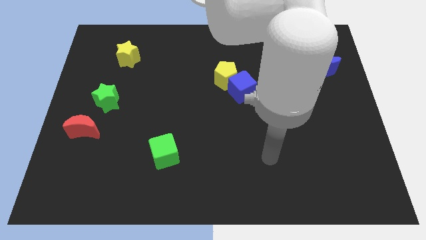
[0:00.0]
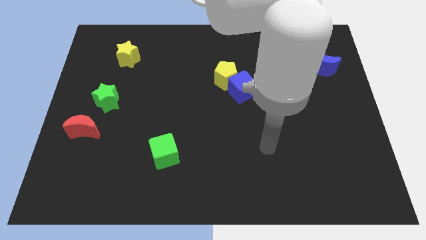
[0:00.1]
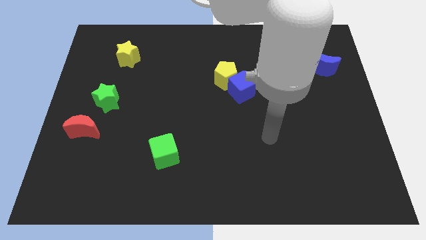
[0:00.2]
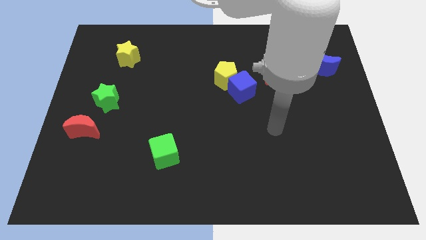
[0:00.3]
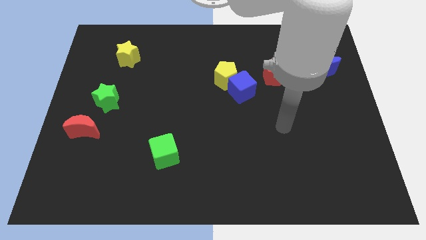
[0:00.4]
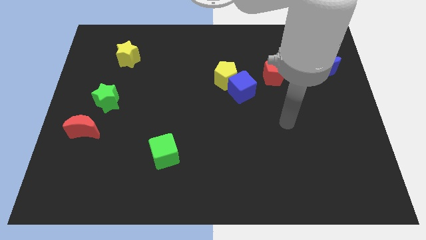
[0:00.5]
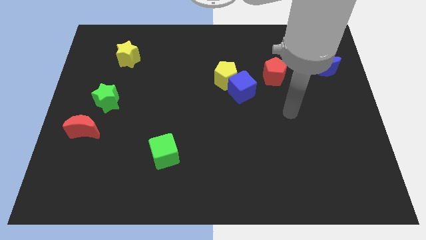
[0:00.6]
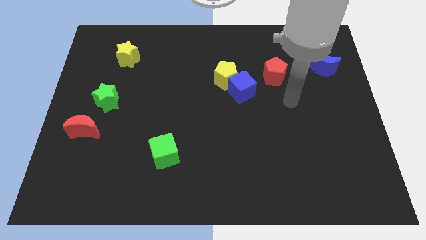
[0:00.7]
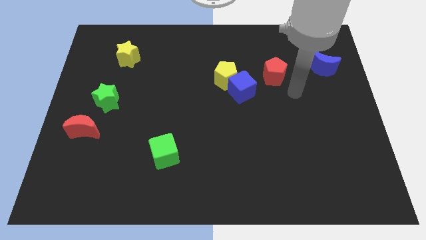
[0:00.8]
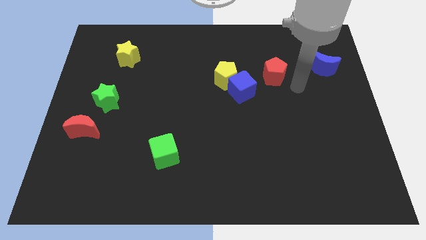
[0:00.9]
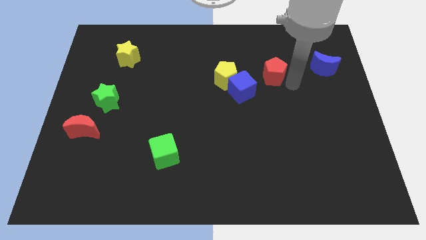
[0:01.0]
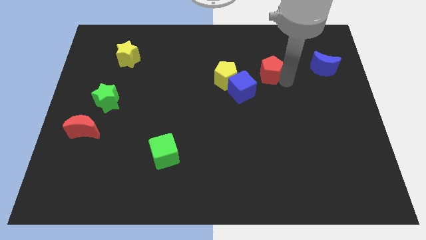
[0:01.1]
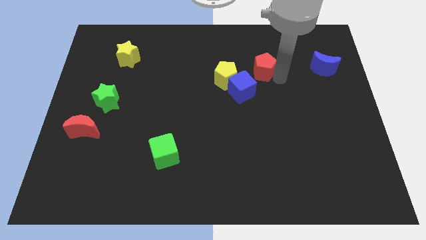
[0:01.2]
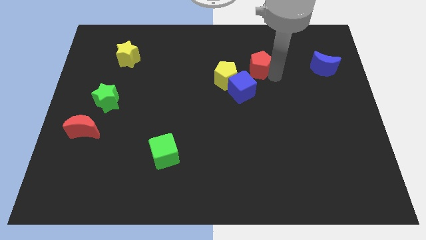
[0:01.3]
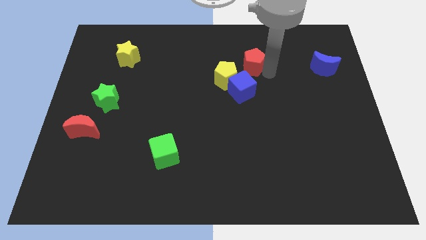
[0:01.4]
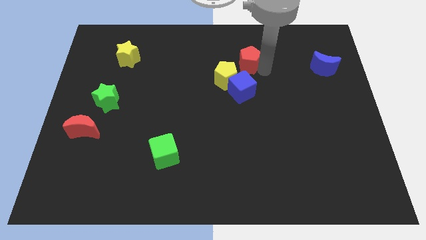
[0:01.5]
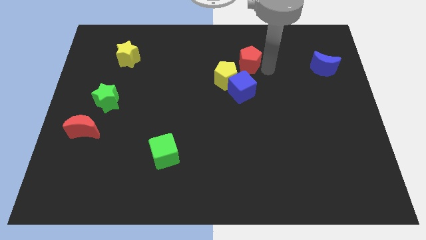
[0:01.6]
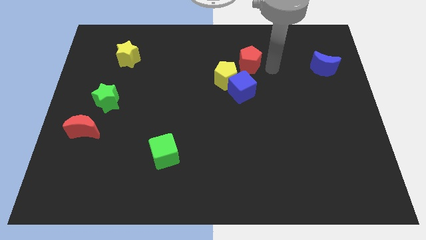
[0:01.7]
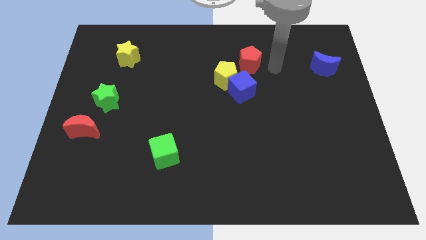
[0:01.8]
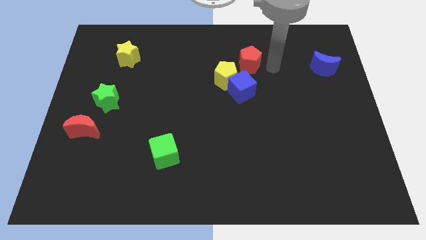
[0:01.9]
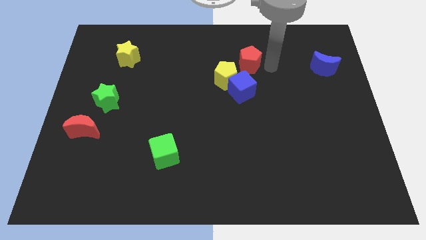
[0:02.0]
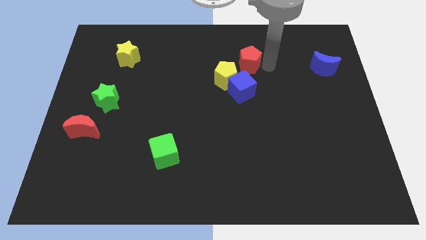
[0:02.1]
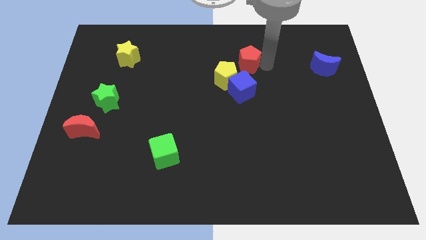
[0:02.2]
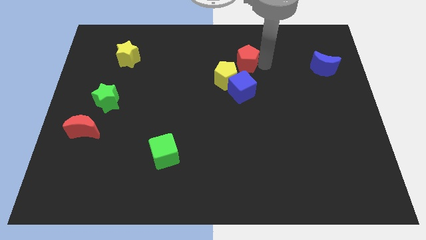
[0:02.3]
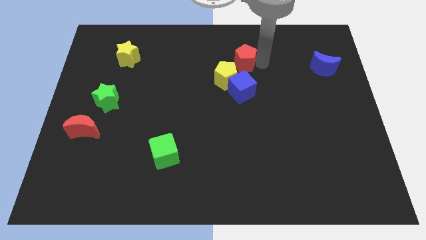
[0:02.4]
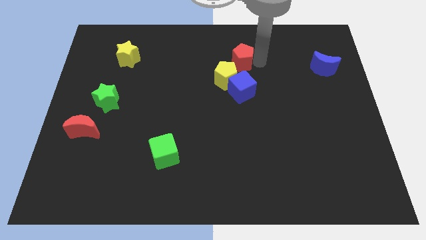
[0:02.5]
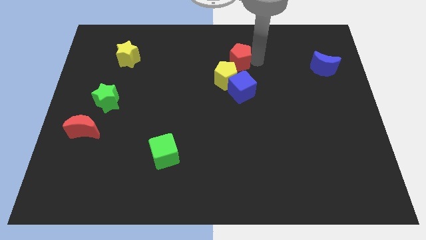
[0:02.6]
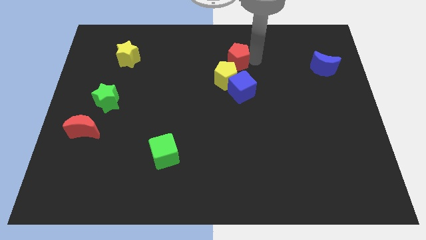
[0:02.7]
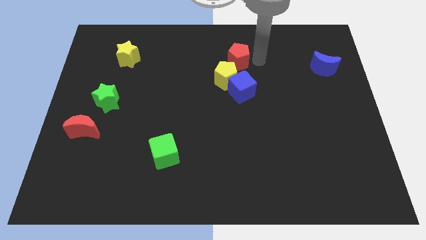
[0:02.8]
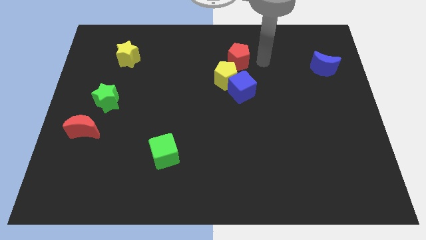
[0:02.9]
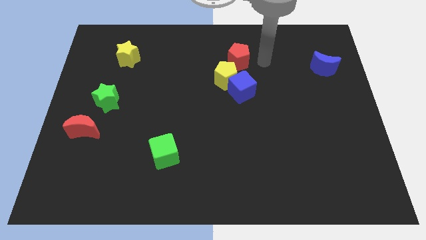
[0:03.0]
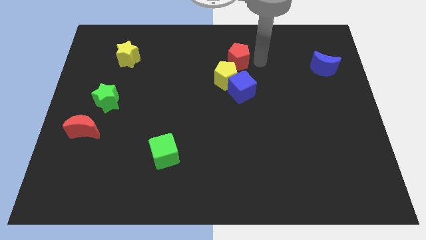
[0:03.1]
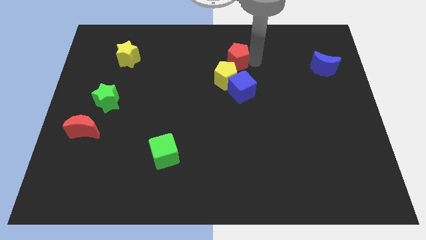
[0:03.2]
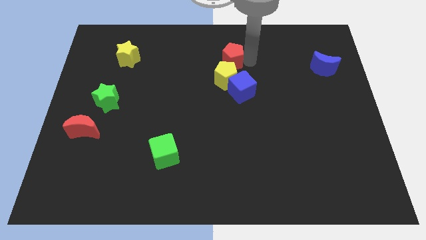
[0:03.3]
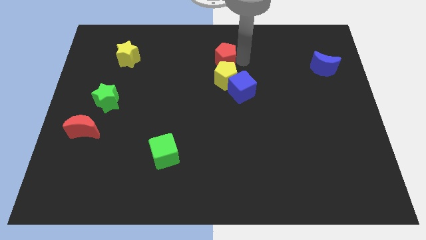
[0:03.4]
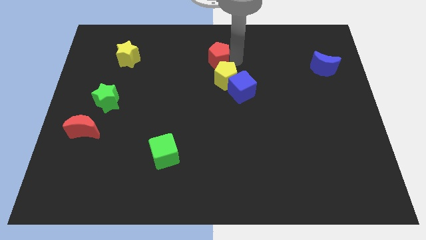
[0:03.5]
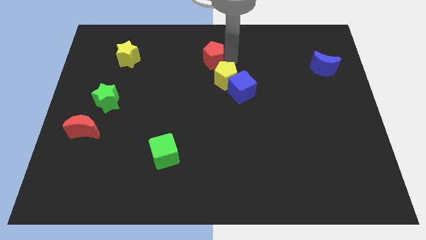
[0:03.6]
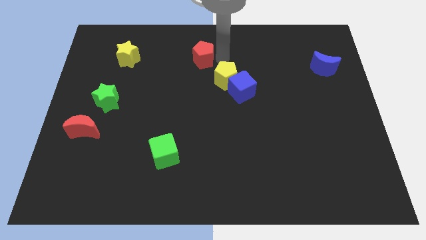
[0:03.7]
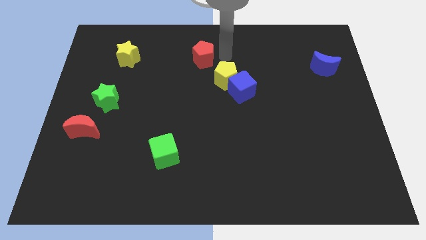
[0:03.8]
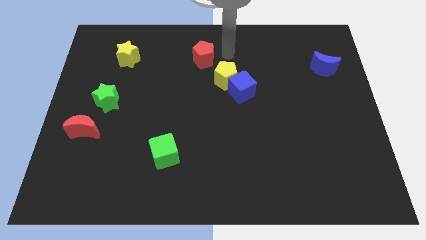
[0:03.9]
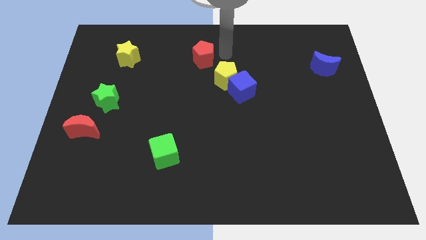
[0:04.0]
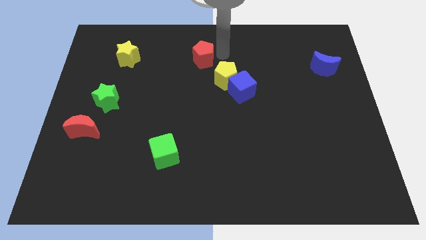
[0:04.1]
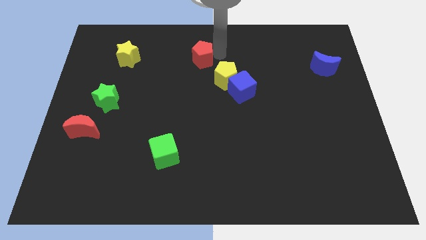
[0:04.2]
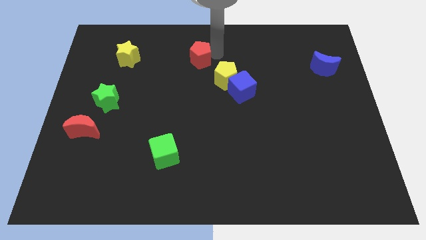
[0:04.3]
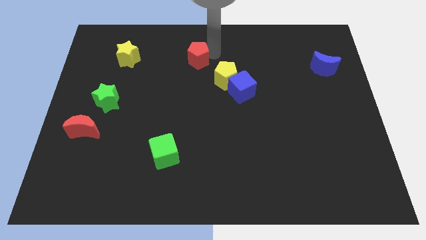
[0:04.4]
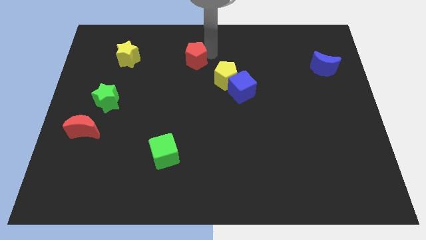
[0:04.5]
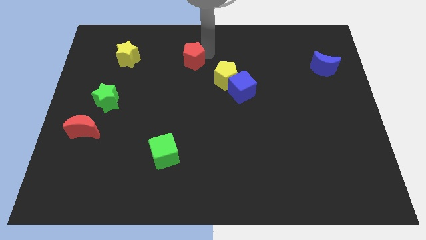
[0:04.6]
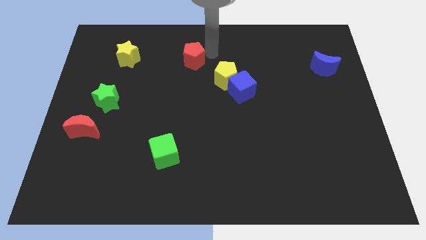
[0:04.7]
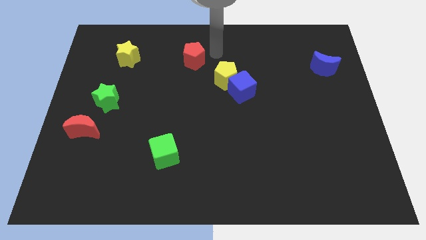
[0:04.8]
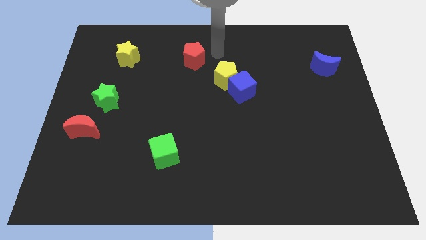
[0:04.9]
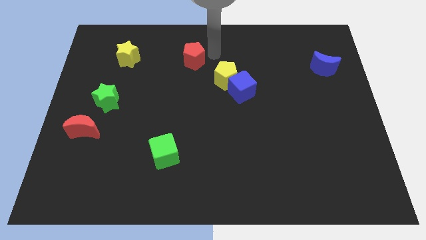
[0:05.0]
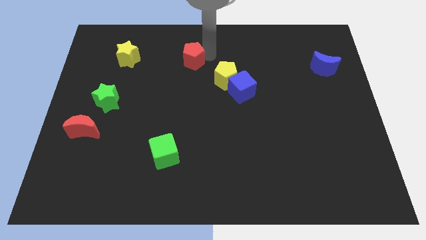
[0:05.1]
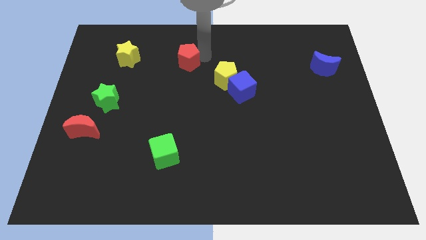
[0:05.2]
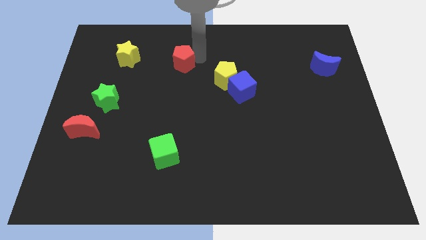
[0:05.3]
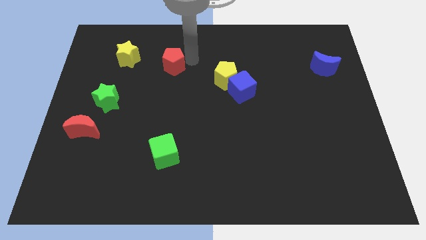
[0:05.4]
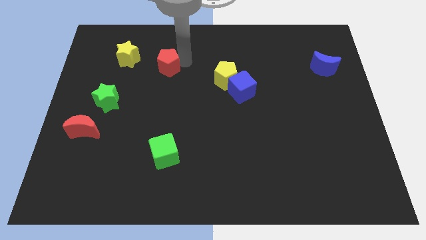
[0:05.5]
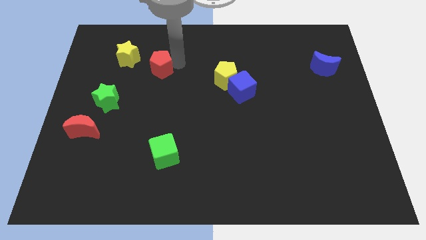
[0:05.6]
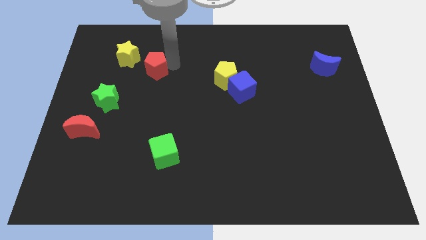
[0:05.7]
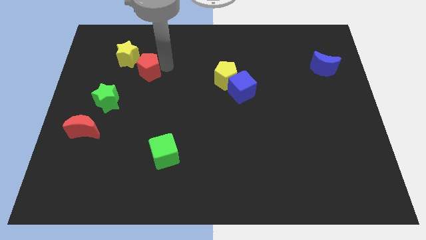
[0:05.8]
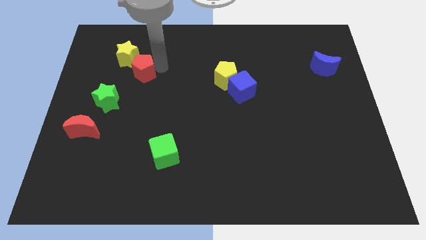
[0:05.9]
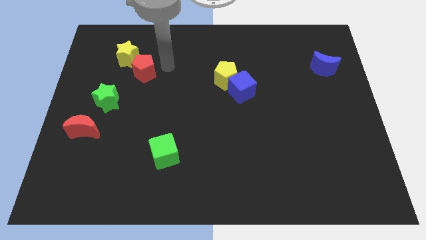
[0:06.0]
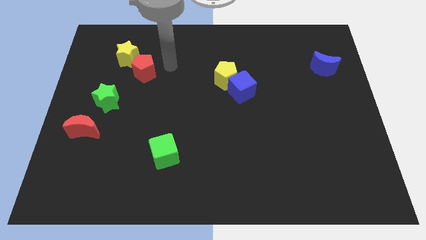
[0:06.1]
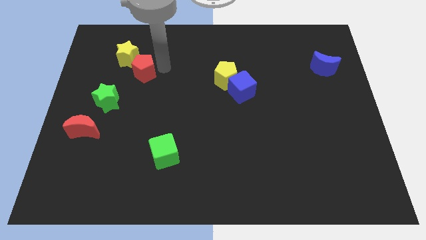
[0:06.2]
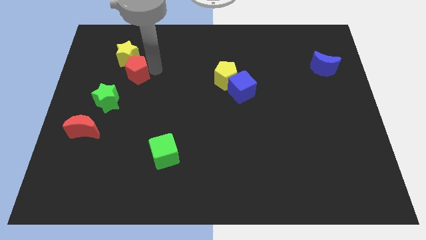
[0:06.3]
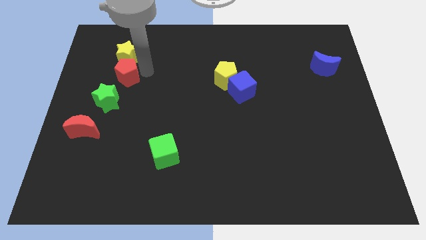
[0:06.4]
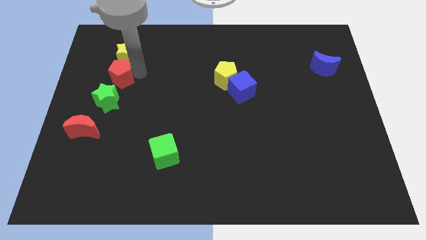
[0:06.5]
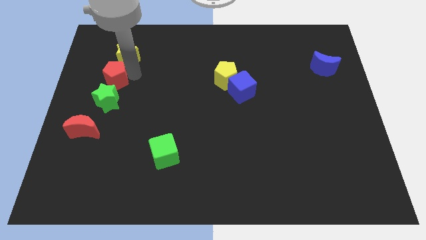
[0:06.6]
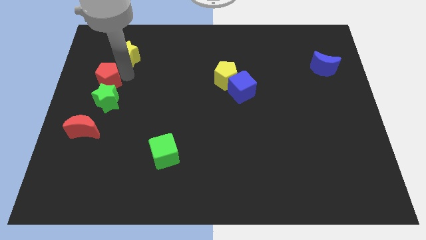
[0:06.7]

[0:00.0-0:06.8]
push the red pentagon to the top of the red moon

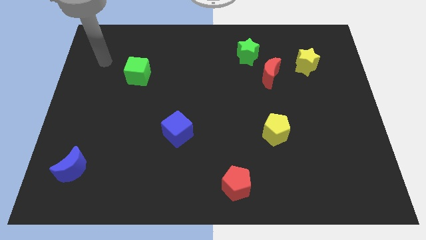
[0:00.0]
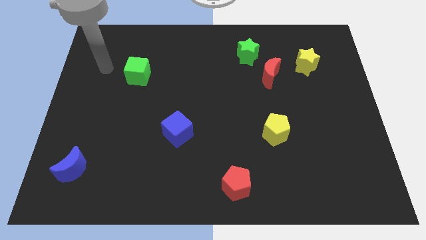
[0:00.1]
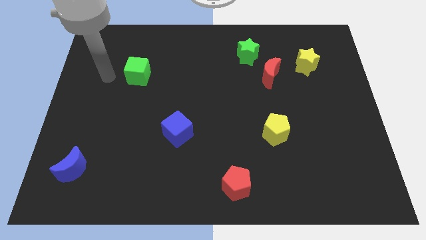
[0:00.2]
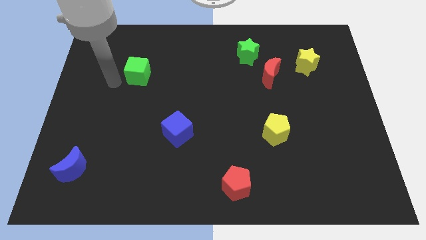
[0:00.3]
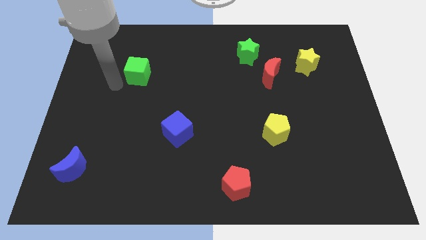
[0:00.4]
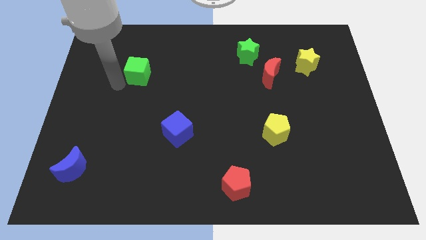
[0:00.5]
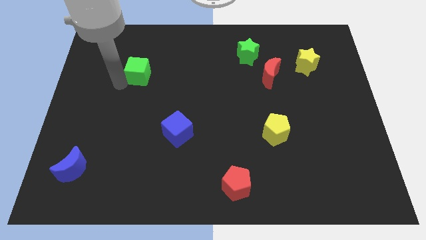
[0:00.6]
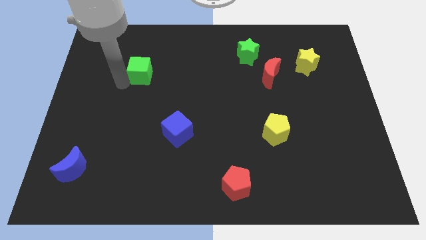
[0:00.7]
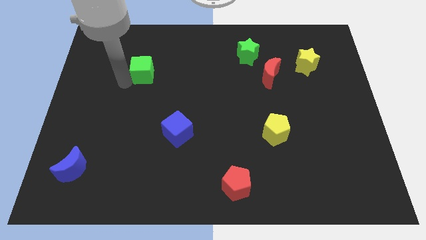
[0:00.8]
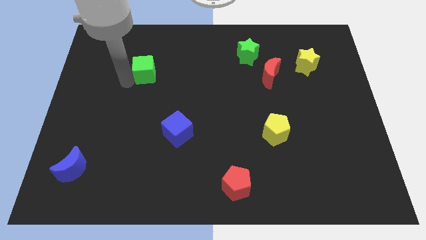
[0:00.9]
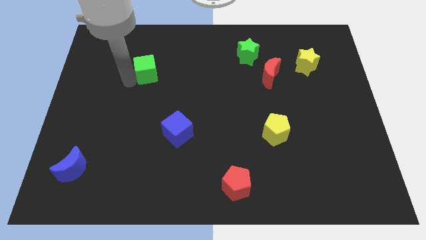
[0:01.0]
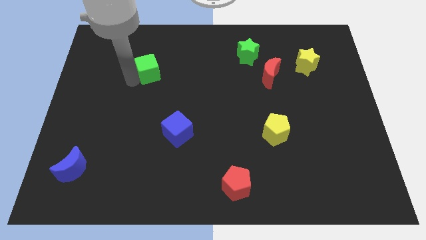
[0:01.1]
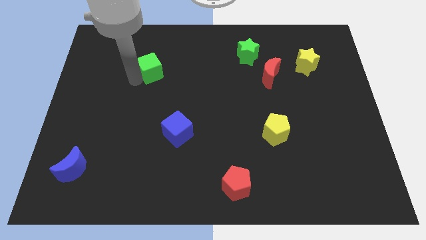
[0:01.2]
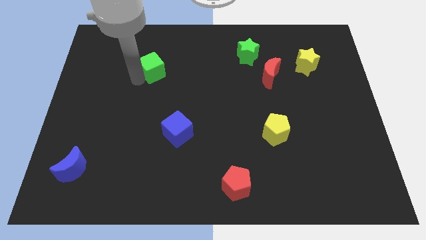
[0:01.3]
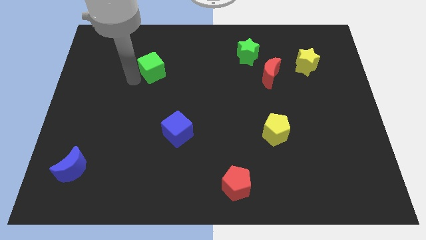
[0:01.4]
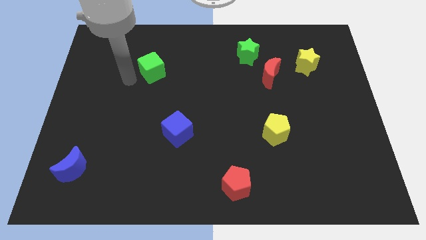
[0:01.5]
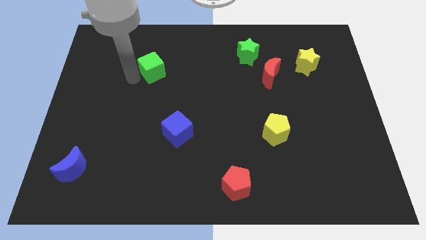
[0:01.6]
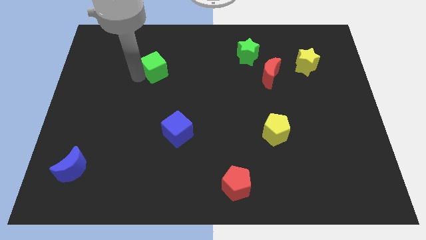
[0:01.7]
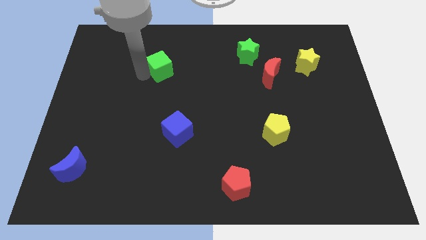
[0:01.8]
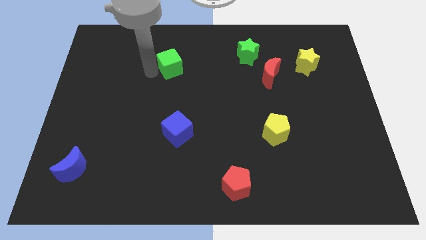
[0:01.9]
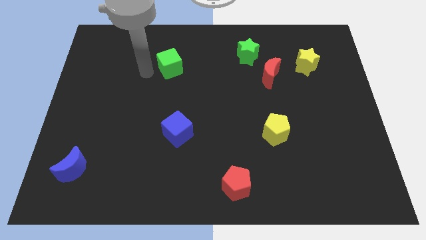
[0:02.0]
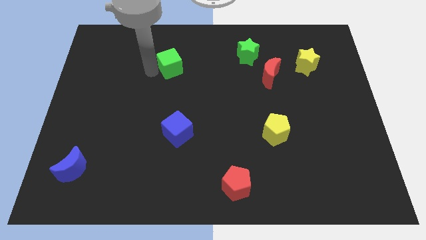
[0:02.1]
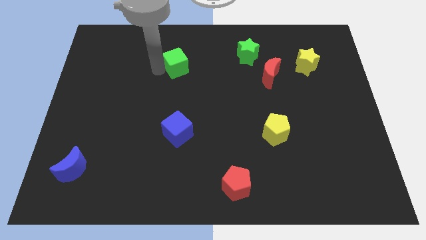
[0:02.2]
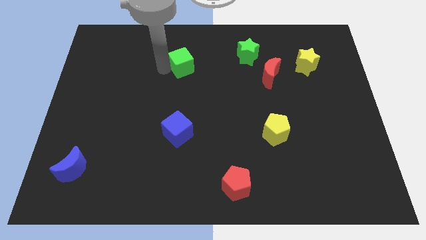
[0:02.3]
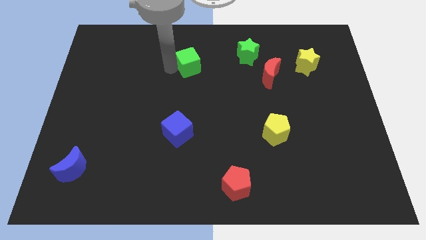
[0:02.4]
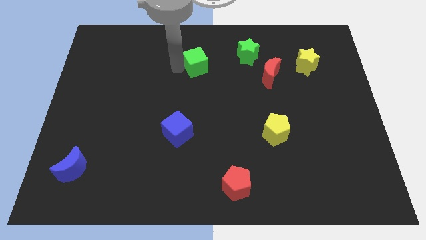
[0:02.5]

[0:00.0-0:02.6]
move the green cube to the left side of the green star
